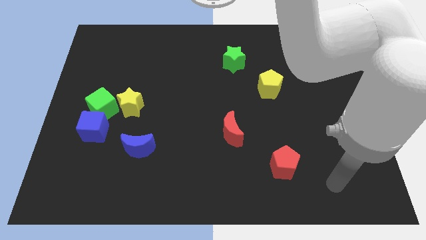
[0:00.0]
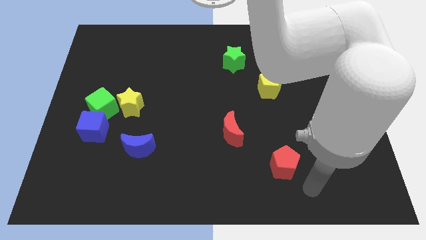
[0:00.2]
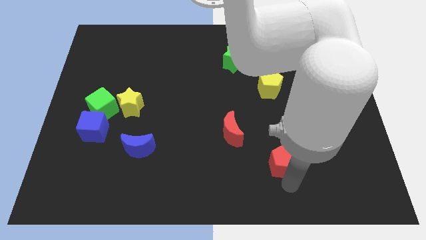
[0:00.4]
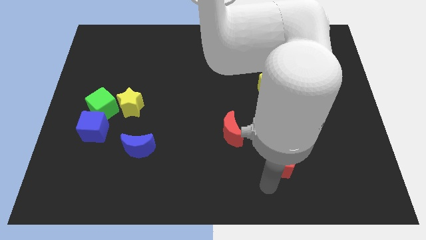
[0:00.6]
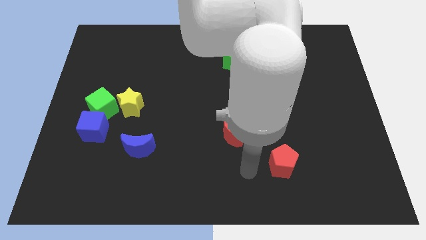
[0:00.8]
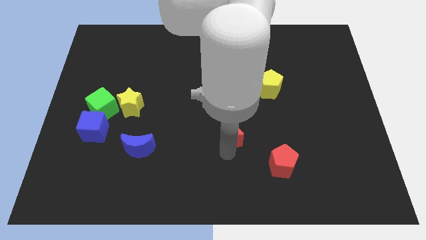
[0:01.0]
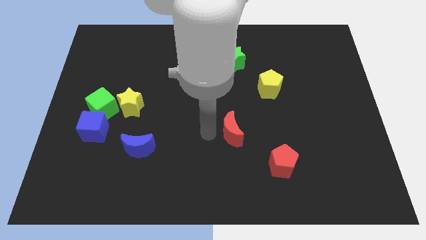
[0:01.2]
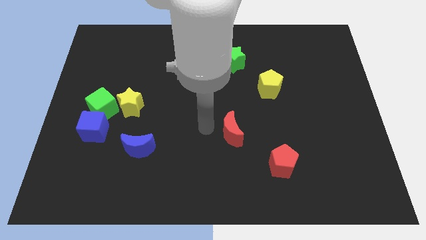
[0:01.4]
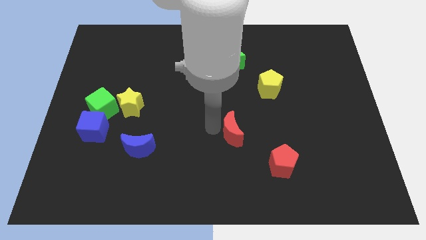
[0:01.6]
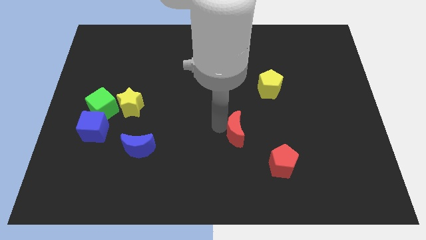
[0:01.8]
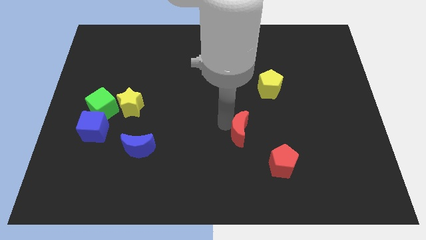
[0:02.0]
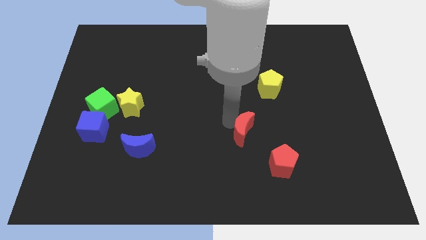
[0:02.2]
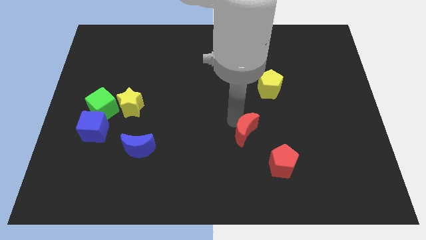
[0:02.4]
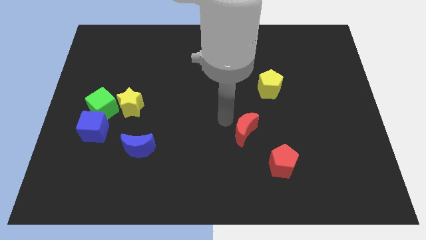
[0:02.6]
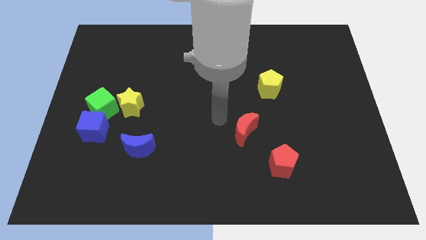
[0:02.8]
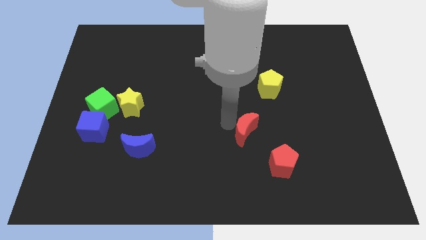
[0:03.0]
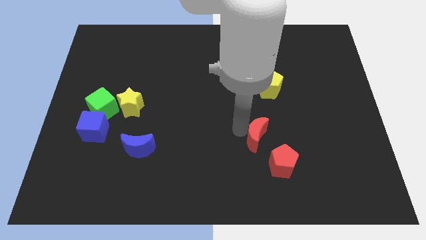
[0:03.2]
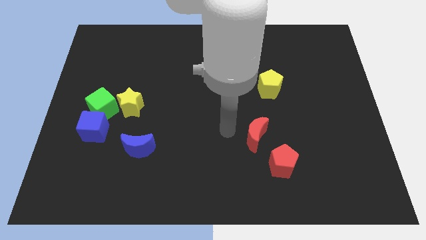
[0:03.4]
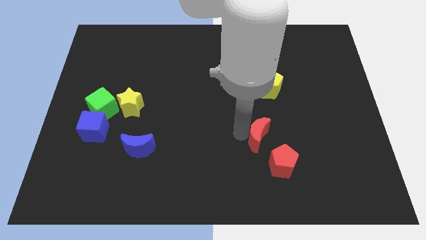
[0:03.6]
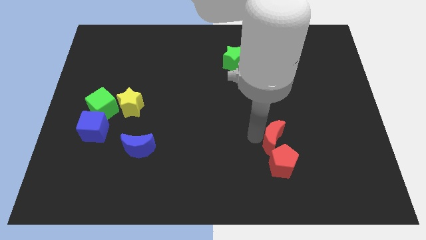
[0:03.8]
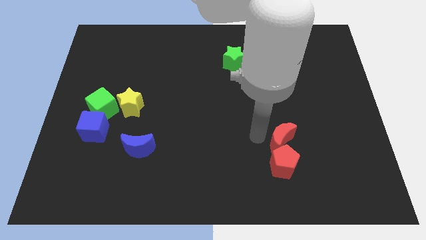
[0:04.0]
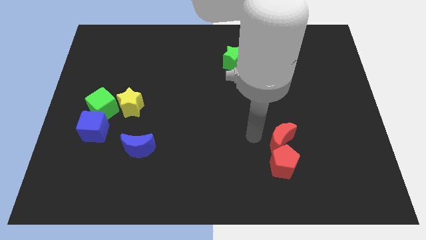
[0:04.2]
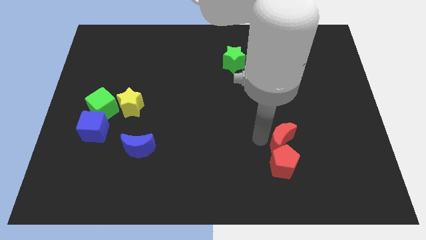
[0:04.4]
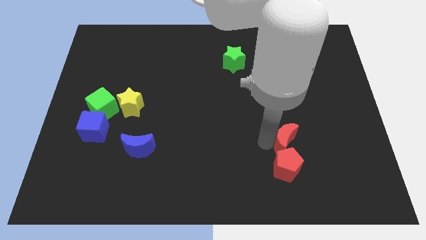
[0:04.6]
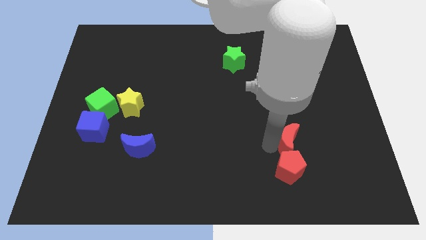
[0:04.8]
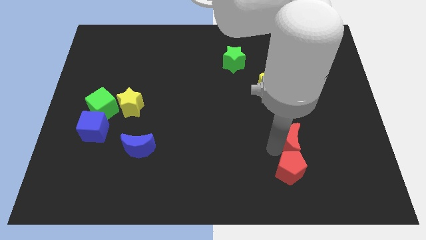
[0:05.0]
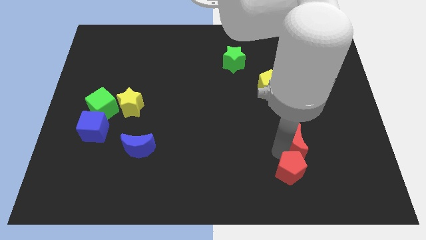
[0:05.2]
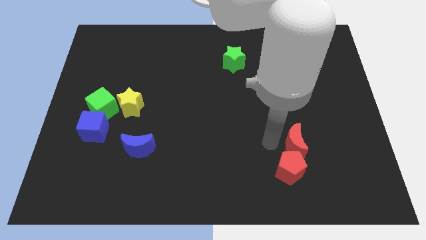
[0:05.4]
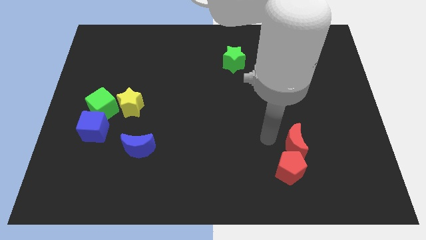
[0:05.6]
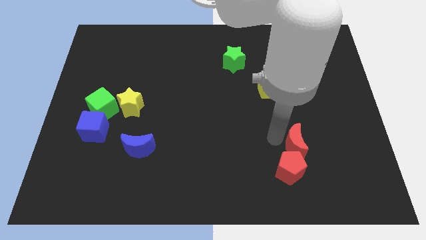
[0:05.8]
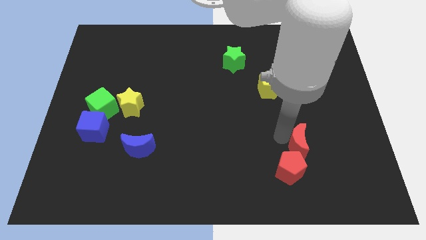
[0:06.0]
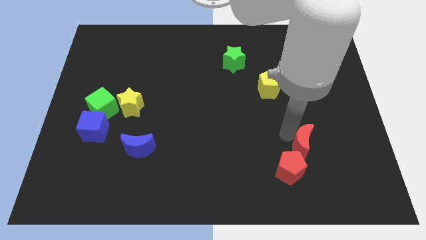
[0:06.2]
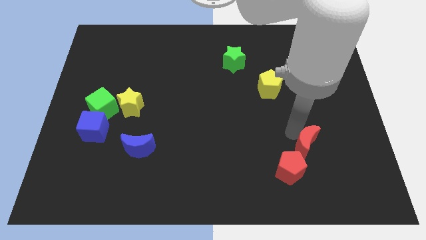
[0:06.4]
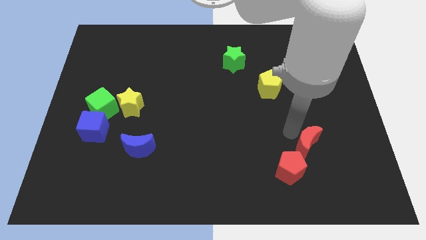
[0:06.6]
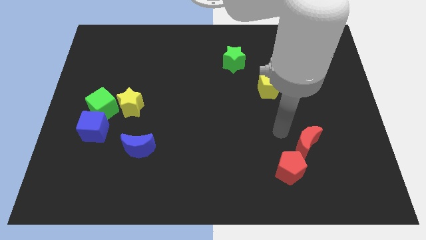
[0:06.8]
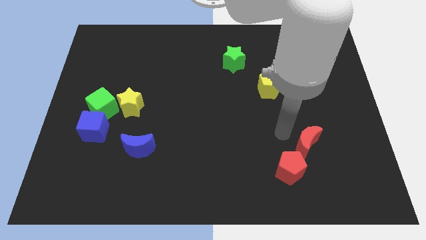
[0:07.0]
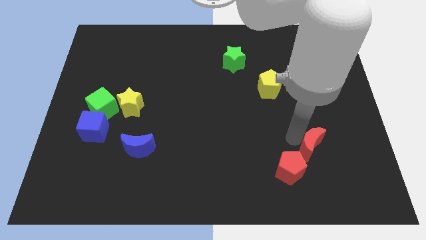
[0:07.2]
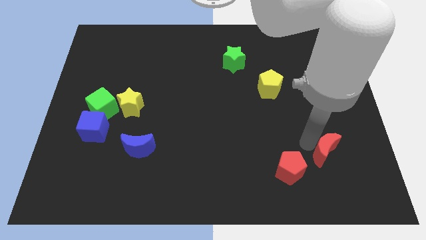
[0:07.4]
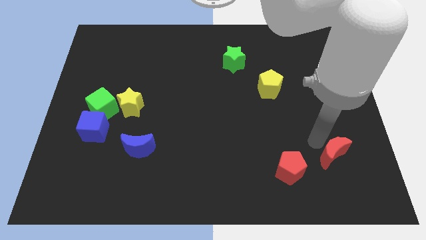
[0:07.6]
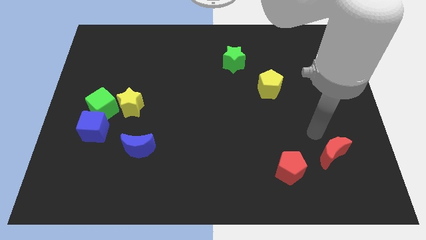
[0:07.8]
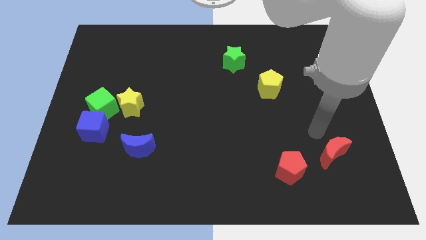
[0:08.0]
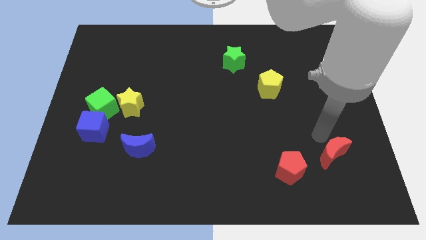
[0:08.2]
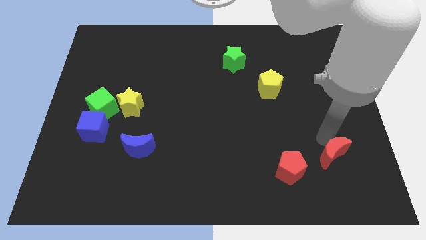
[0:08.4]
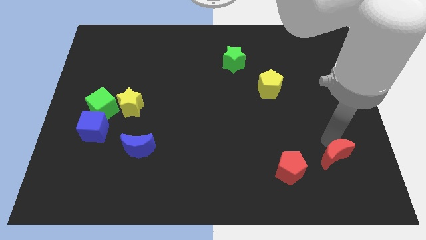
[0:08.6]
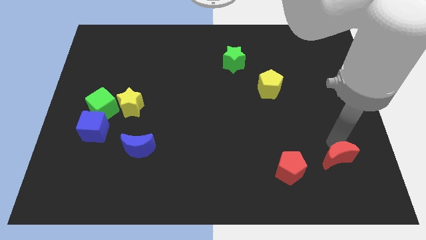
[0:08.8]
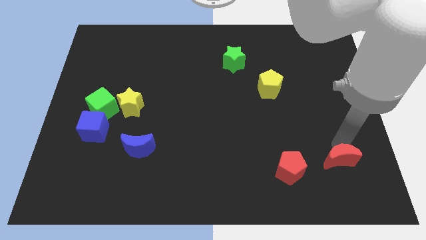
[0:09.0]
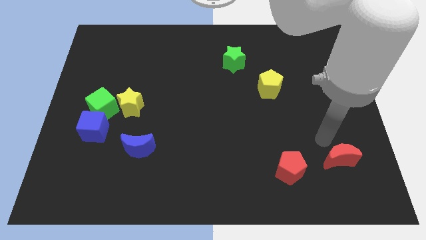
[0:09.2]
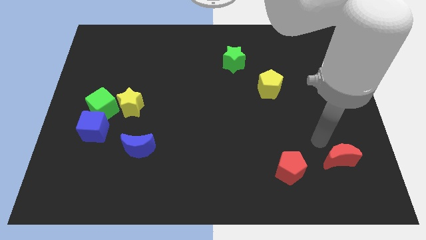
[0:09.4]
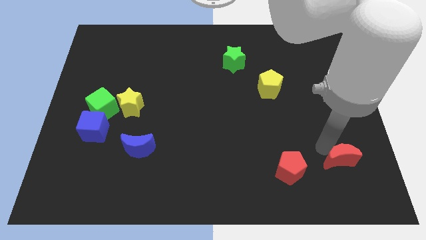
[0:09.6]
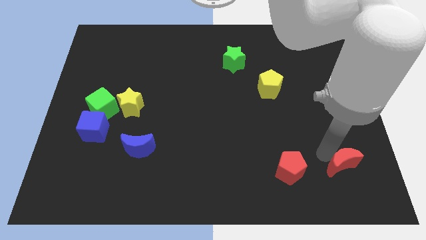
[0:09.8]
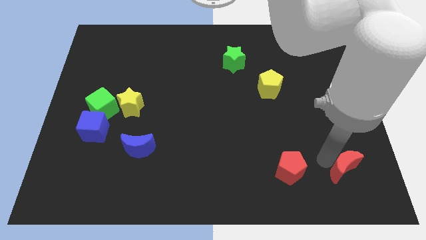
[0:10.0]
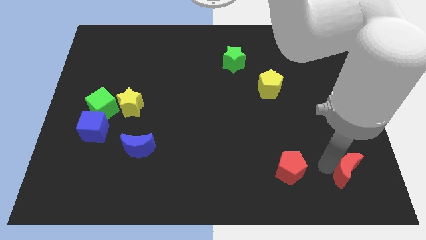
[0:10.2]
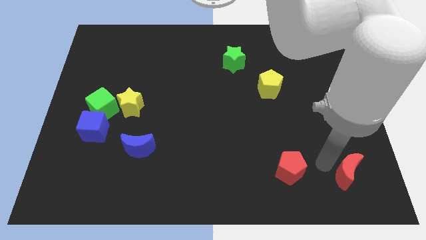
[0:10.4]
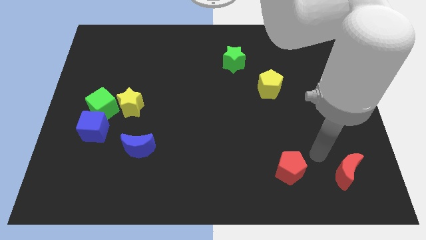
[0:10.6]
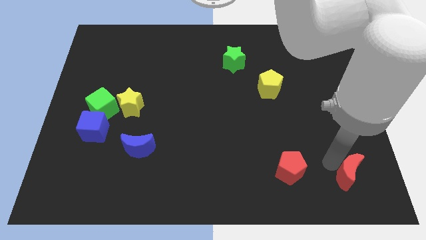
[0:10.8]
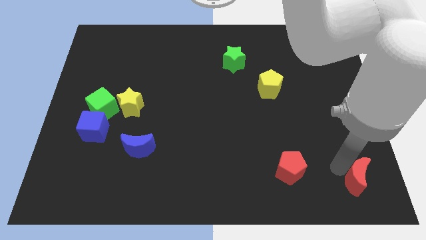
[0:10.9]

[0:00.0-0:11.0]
slide the red moon to the bottom right of the board
